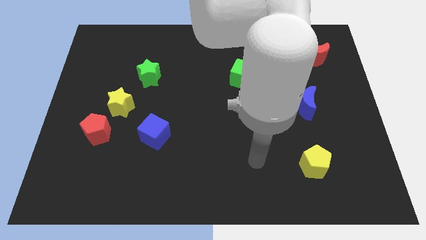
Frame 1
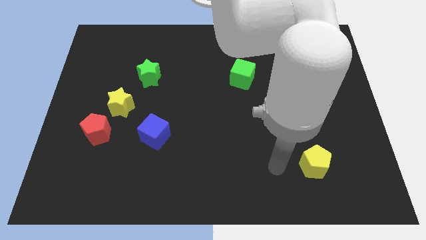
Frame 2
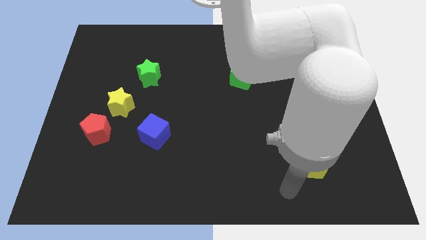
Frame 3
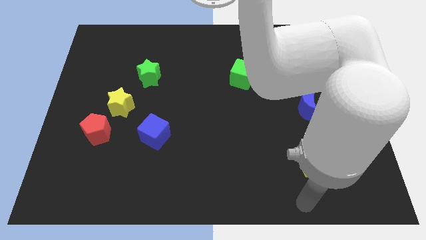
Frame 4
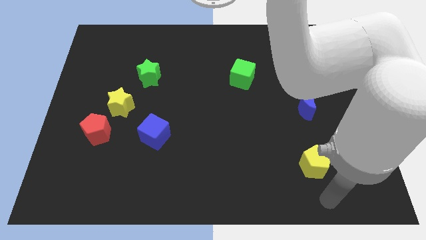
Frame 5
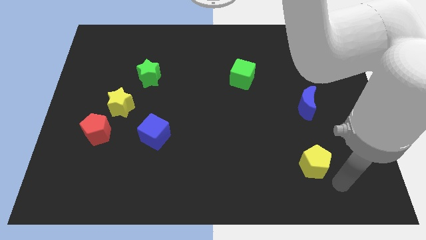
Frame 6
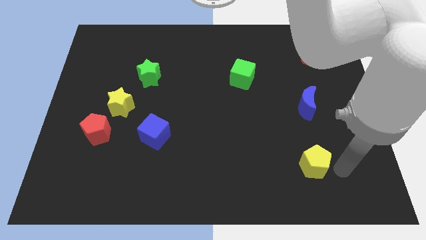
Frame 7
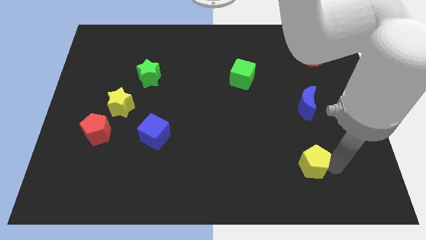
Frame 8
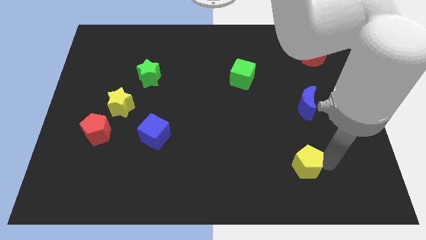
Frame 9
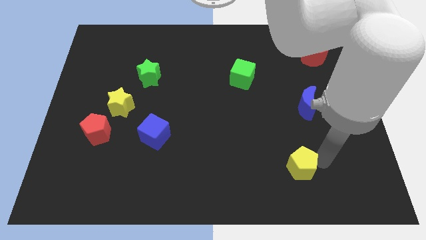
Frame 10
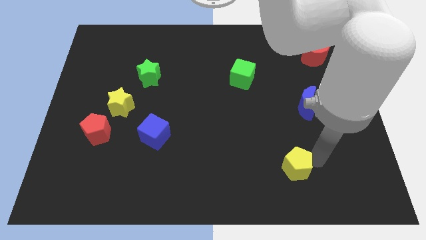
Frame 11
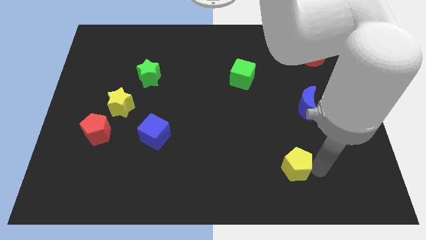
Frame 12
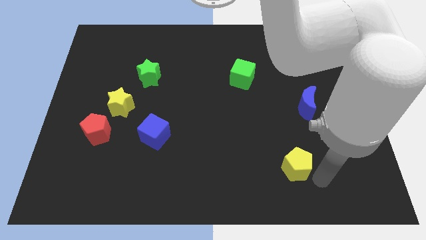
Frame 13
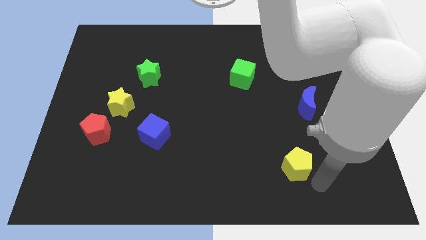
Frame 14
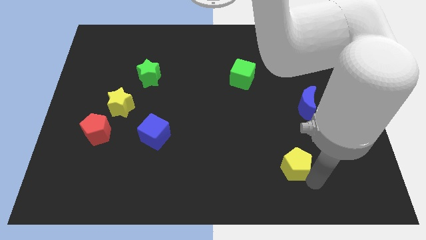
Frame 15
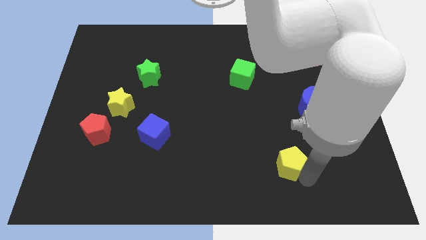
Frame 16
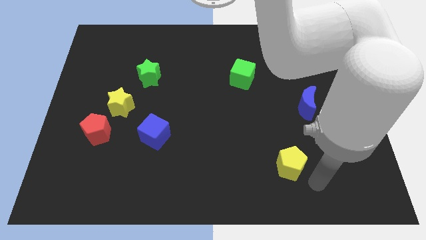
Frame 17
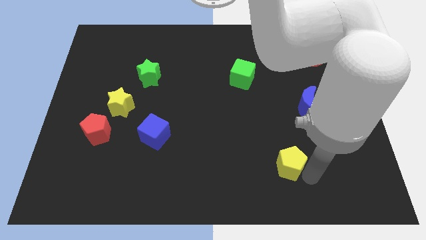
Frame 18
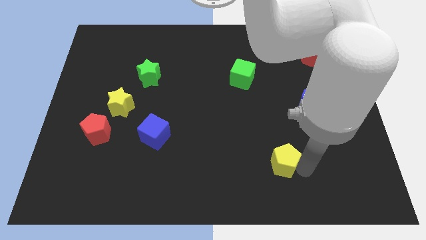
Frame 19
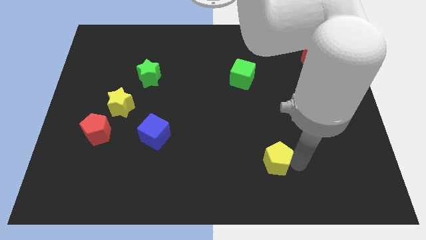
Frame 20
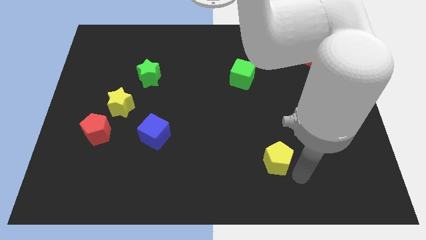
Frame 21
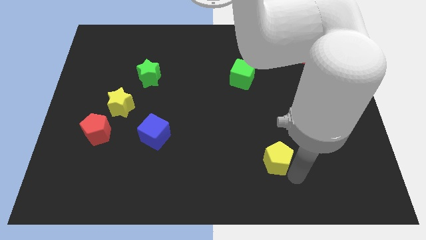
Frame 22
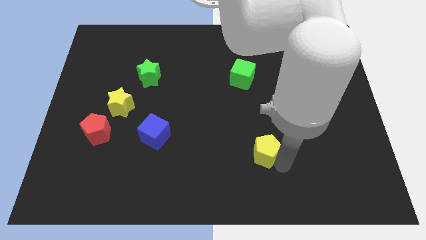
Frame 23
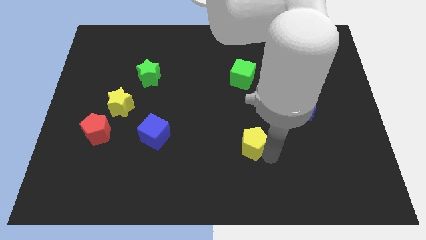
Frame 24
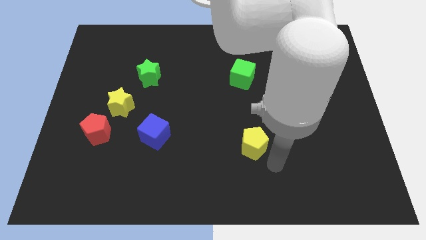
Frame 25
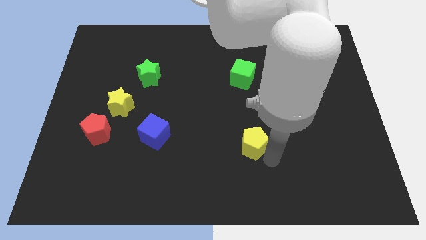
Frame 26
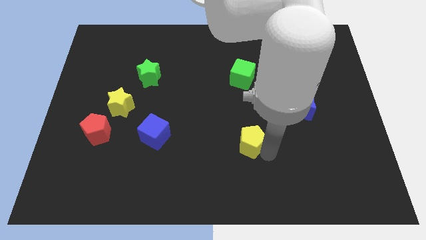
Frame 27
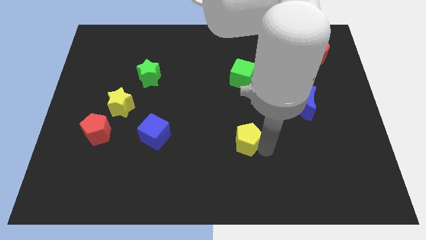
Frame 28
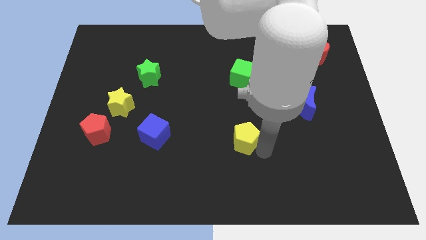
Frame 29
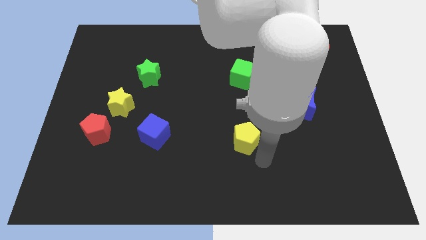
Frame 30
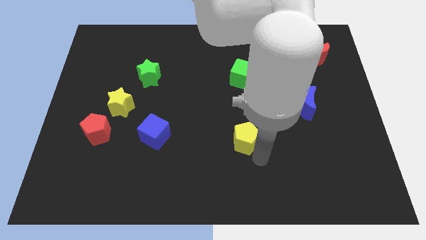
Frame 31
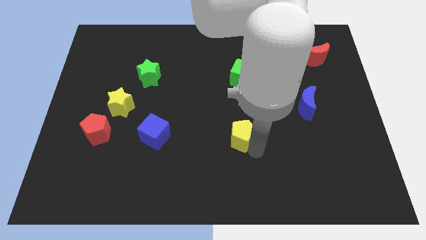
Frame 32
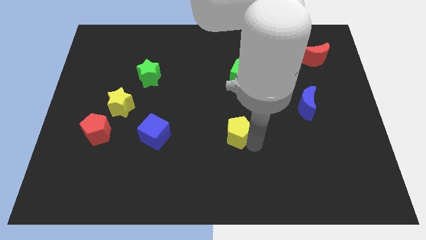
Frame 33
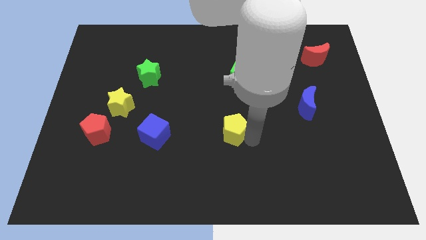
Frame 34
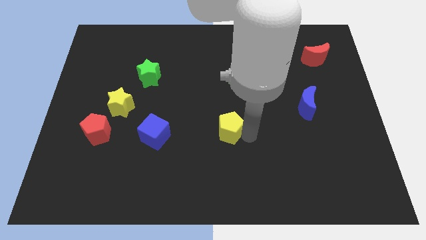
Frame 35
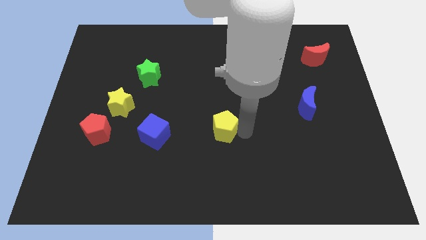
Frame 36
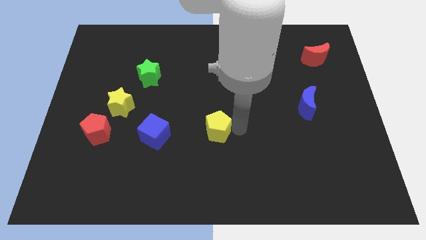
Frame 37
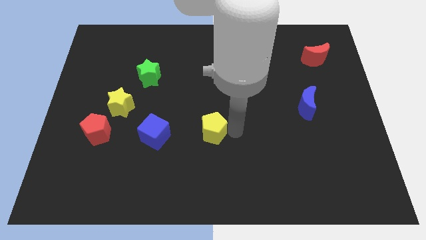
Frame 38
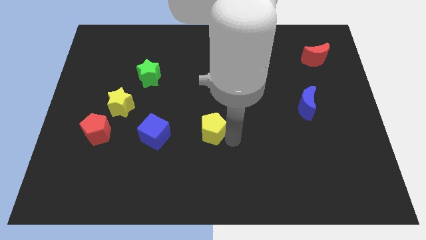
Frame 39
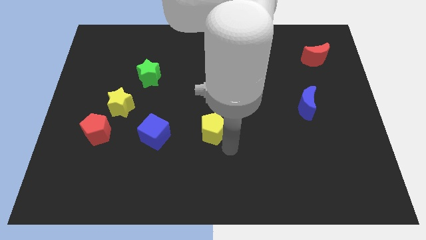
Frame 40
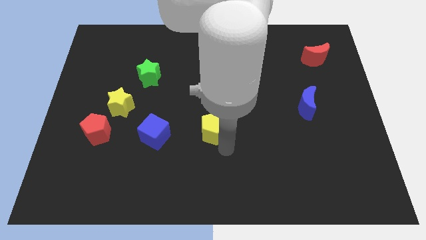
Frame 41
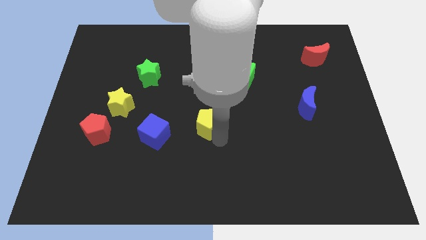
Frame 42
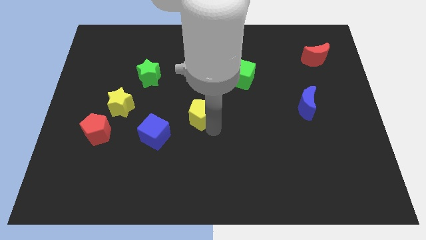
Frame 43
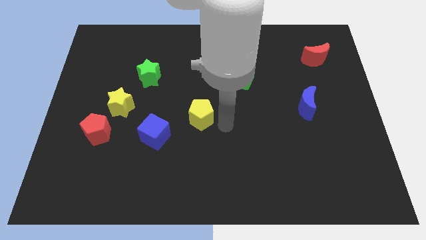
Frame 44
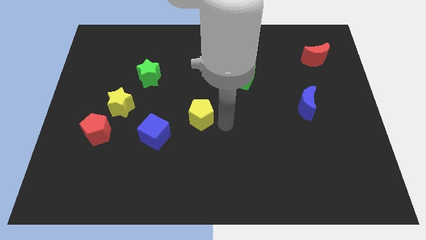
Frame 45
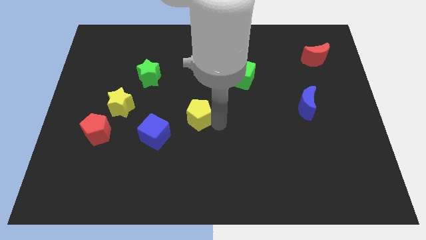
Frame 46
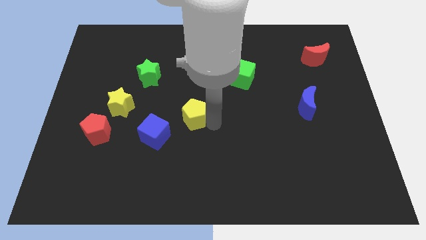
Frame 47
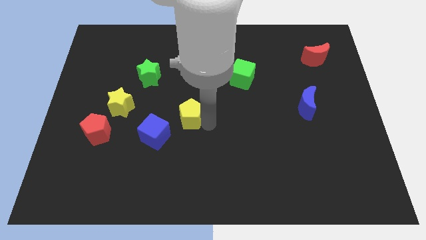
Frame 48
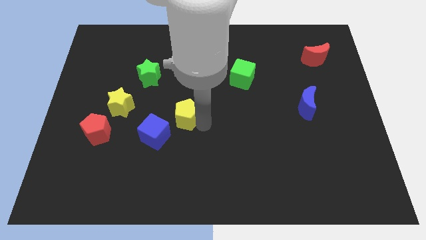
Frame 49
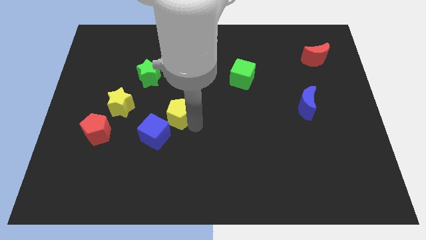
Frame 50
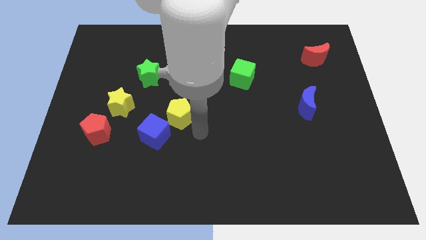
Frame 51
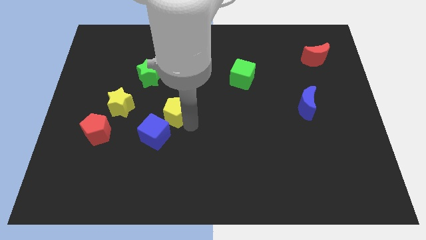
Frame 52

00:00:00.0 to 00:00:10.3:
slide the yellow pentagon to the top side of the blue cube
